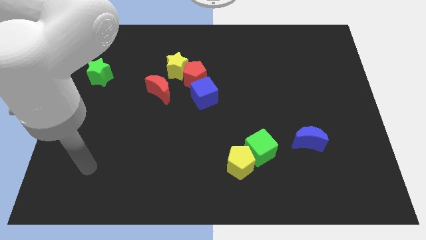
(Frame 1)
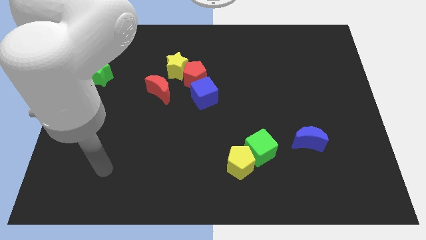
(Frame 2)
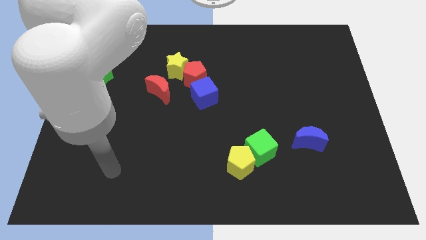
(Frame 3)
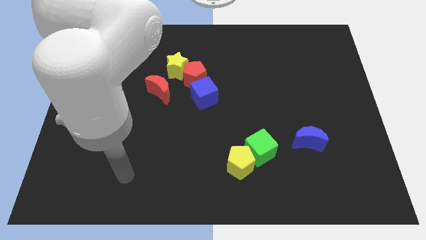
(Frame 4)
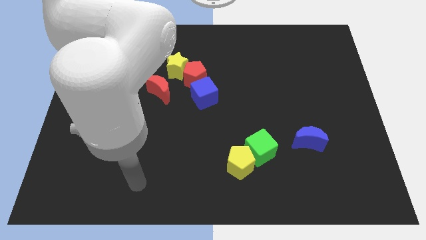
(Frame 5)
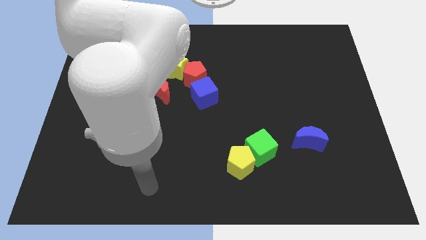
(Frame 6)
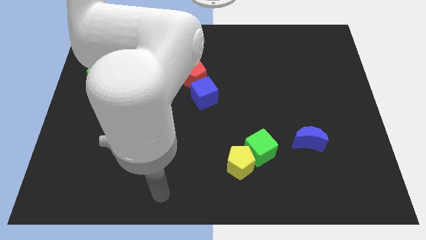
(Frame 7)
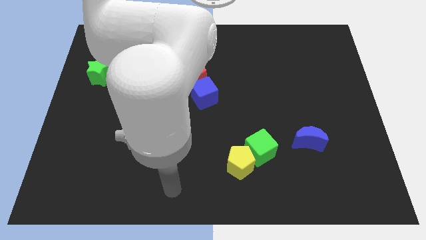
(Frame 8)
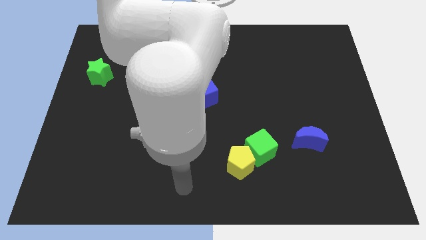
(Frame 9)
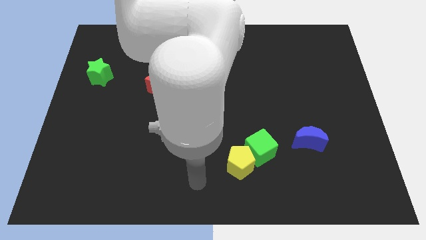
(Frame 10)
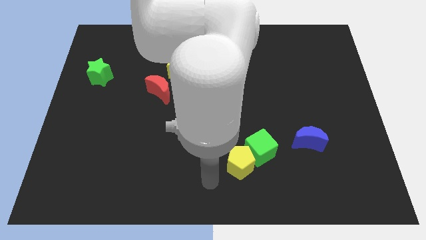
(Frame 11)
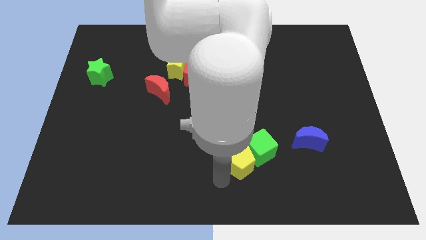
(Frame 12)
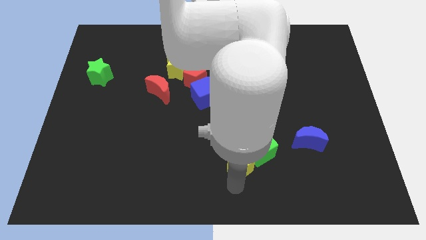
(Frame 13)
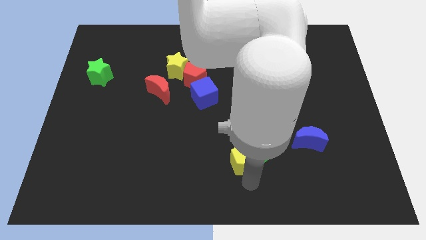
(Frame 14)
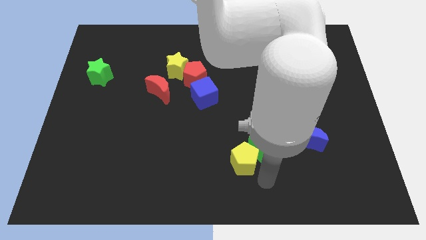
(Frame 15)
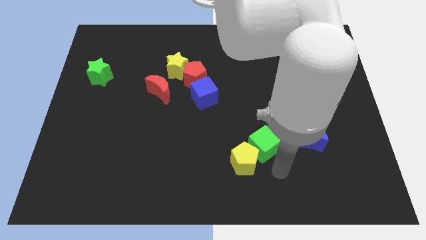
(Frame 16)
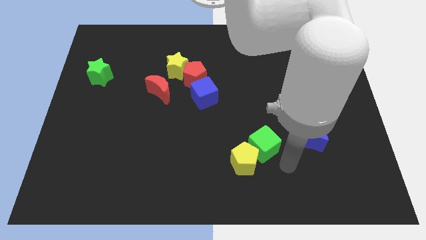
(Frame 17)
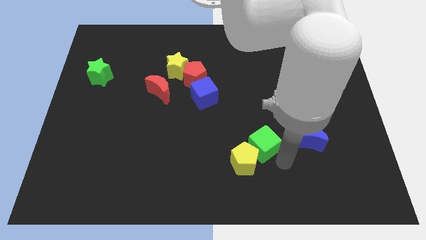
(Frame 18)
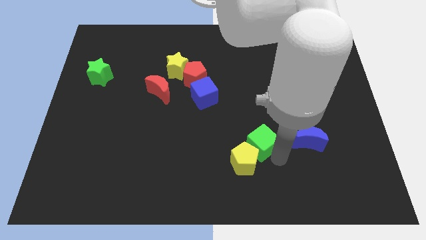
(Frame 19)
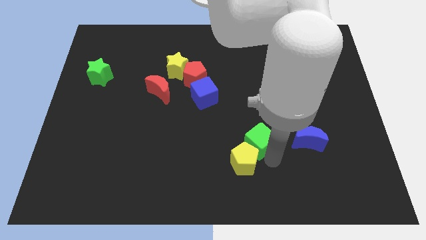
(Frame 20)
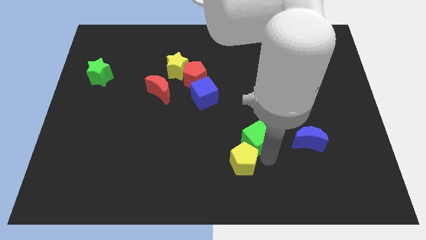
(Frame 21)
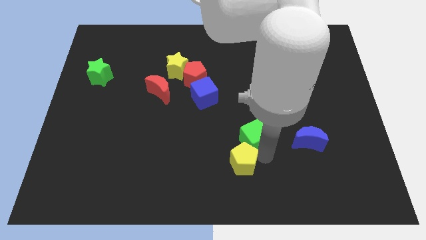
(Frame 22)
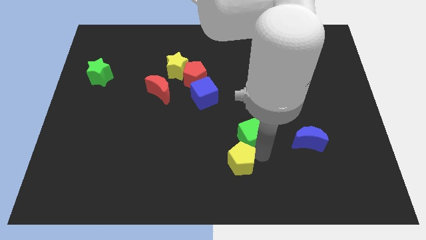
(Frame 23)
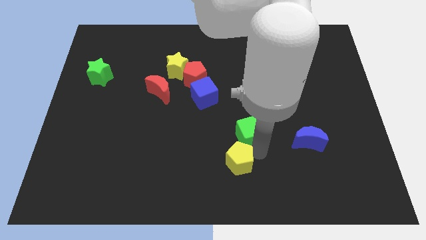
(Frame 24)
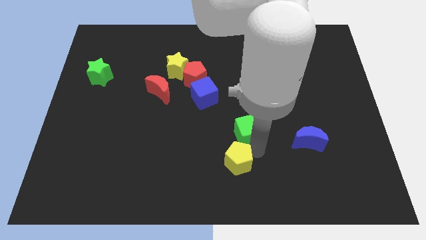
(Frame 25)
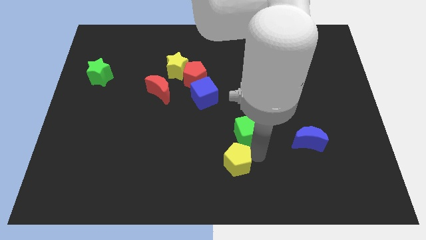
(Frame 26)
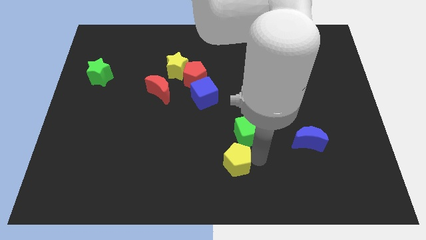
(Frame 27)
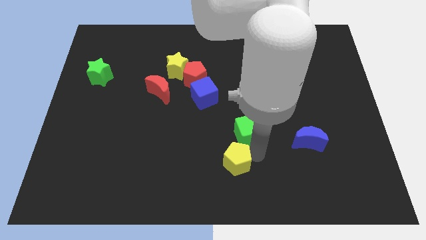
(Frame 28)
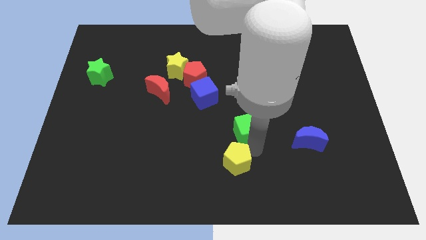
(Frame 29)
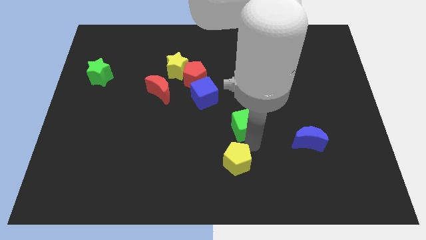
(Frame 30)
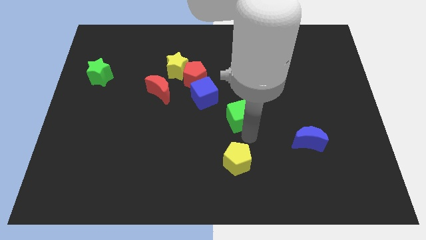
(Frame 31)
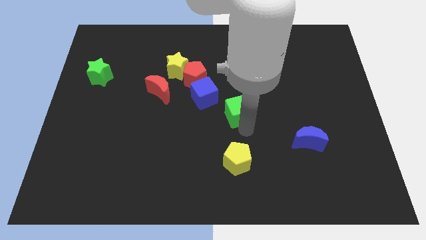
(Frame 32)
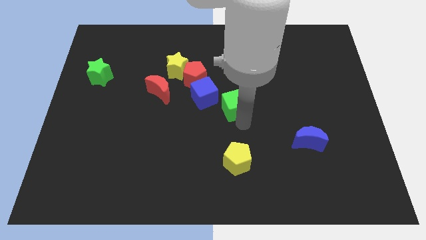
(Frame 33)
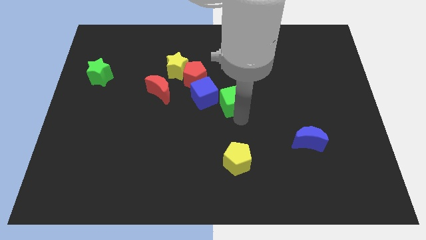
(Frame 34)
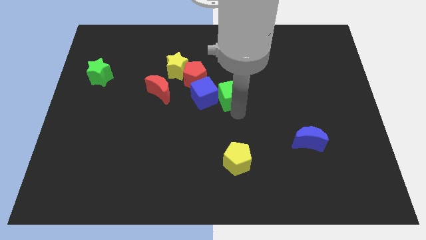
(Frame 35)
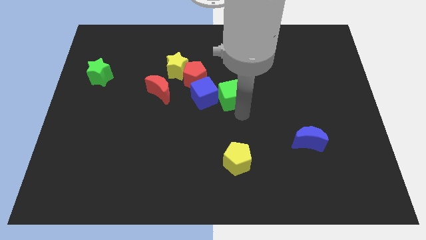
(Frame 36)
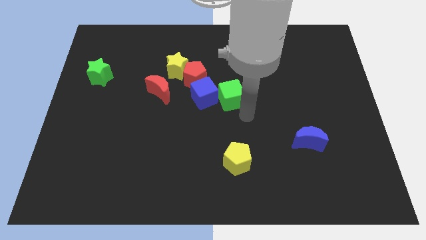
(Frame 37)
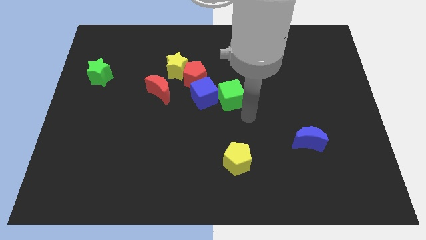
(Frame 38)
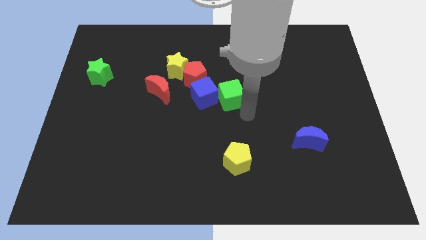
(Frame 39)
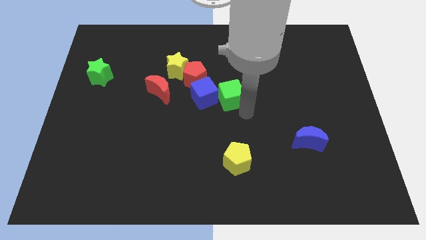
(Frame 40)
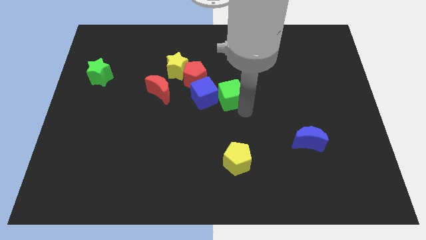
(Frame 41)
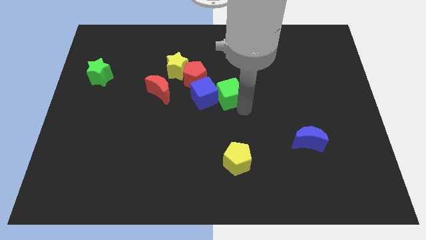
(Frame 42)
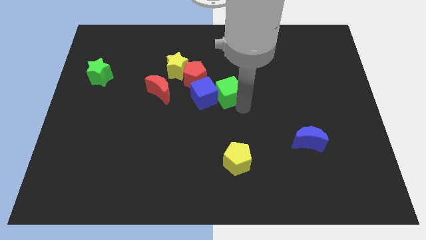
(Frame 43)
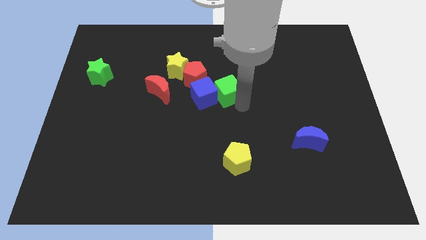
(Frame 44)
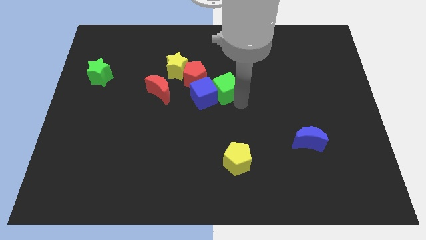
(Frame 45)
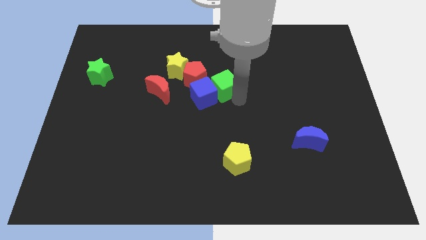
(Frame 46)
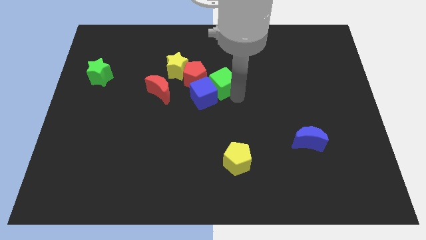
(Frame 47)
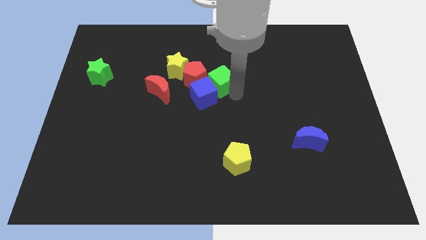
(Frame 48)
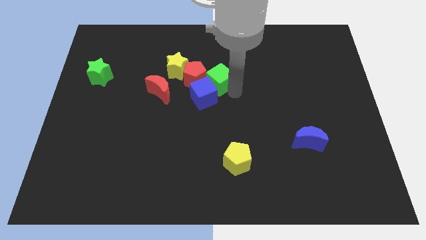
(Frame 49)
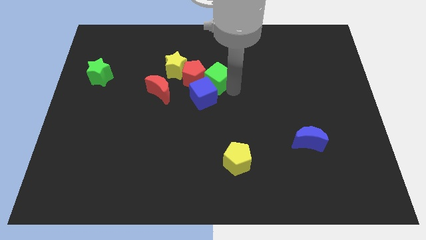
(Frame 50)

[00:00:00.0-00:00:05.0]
move the green cube next to the red pentagon

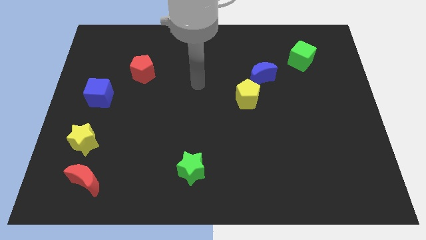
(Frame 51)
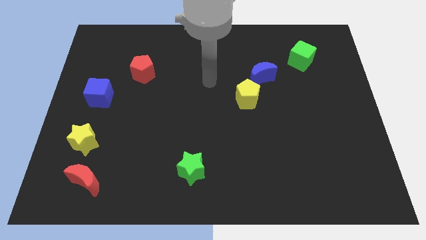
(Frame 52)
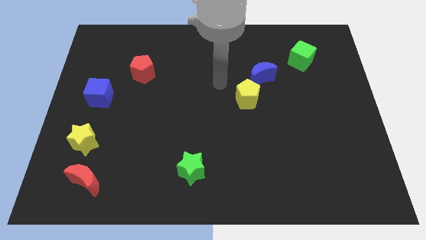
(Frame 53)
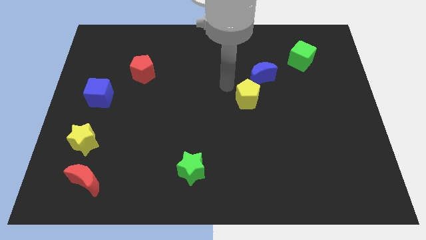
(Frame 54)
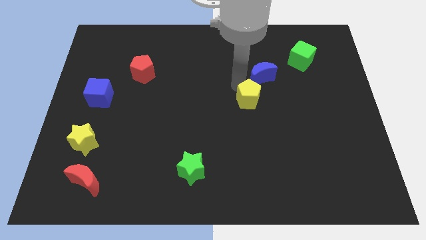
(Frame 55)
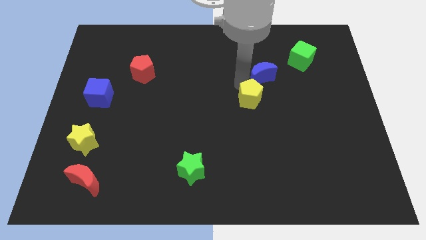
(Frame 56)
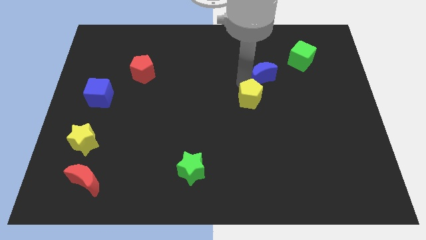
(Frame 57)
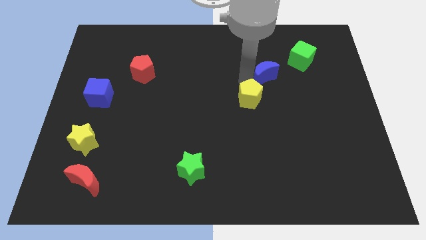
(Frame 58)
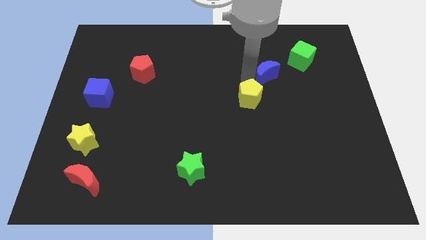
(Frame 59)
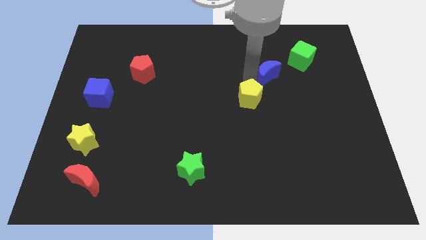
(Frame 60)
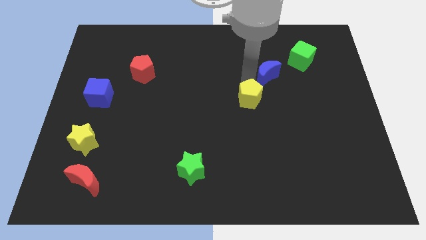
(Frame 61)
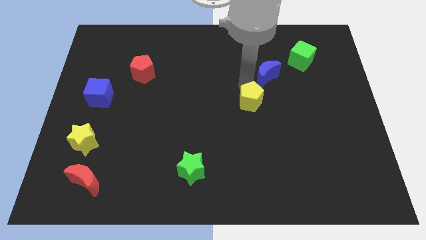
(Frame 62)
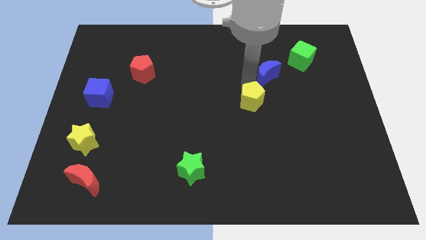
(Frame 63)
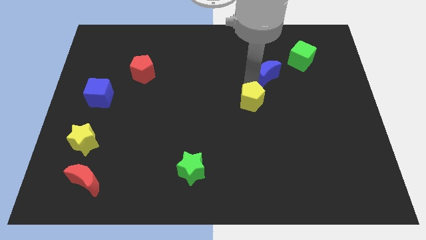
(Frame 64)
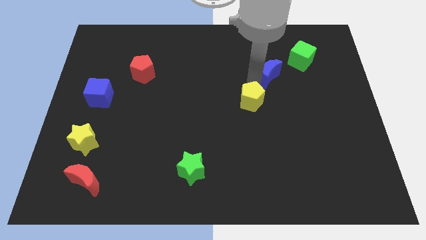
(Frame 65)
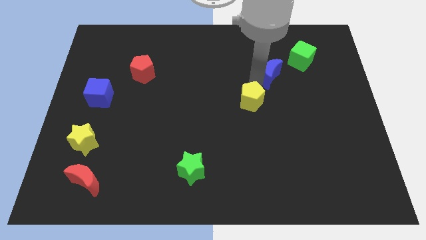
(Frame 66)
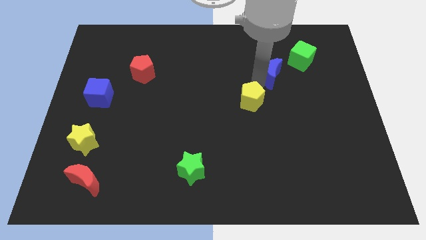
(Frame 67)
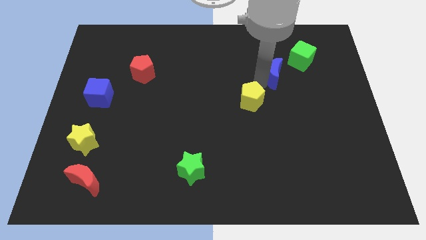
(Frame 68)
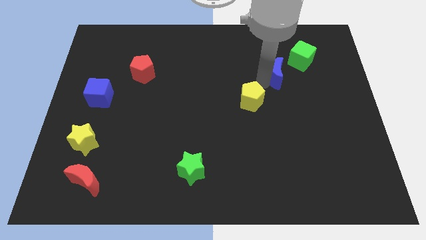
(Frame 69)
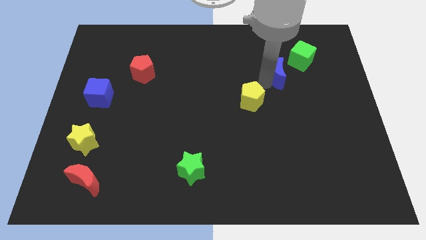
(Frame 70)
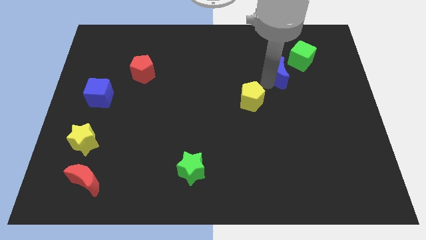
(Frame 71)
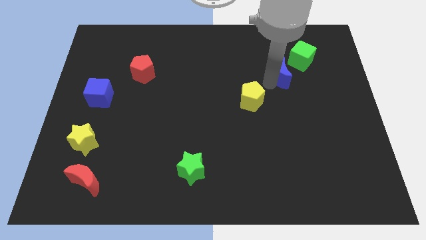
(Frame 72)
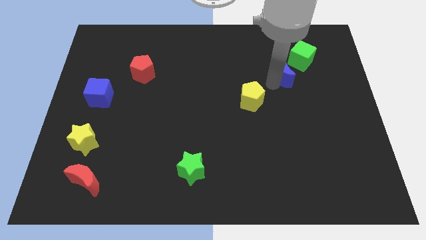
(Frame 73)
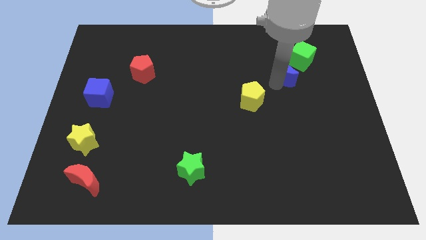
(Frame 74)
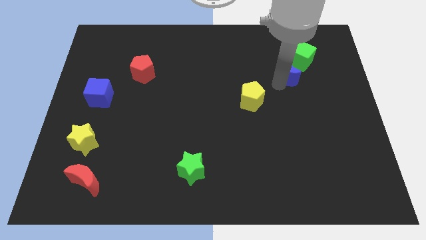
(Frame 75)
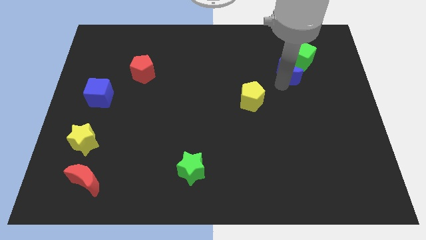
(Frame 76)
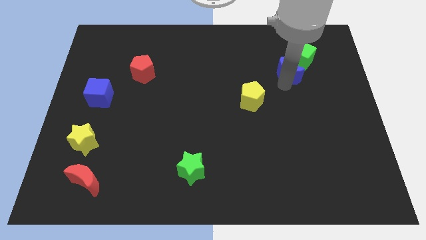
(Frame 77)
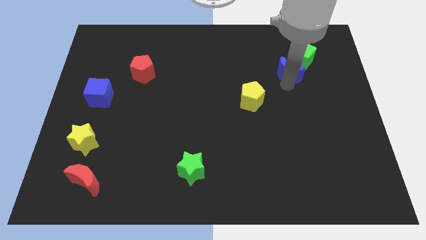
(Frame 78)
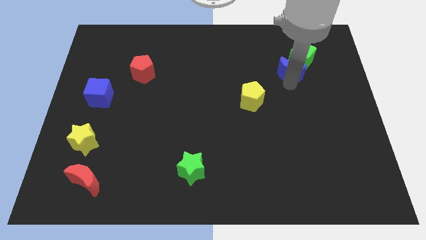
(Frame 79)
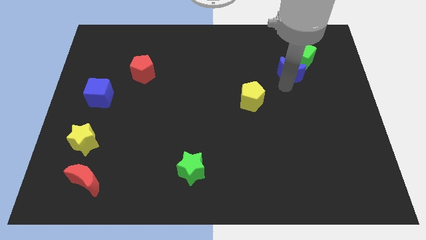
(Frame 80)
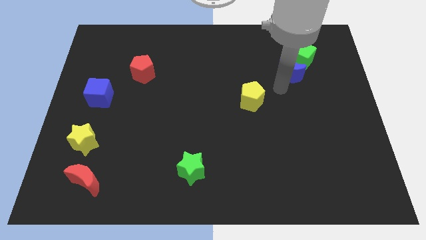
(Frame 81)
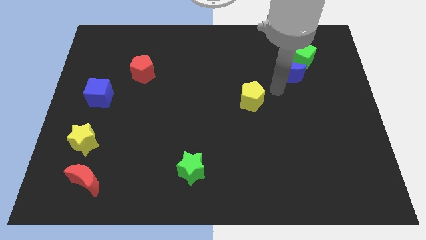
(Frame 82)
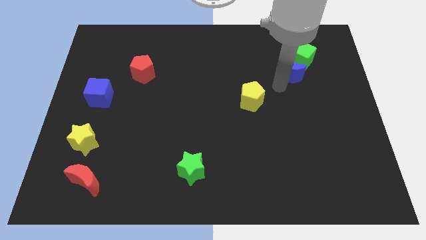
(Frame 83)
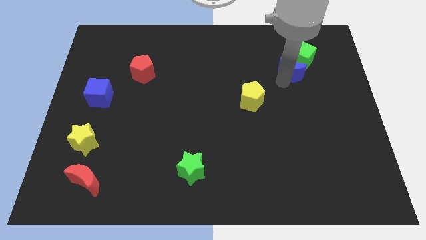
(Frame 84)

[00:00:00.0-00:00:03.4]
move the blue moon close to the green cube
